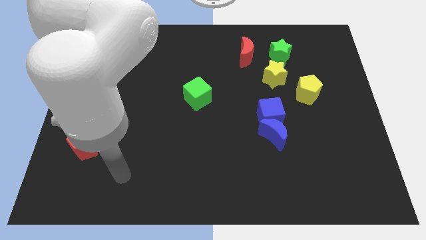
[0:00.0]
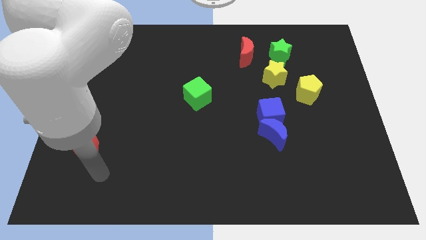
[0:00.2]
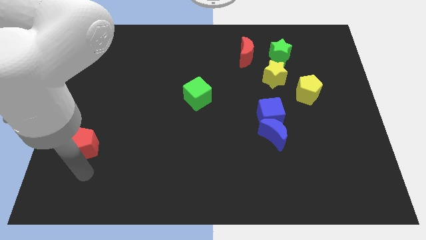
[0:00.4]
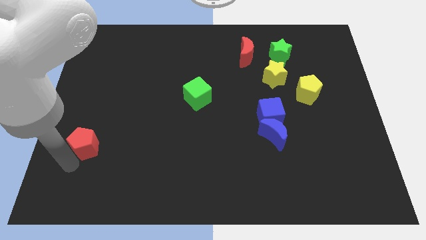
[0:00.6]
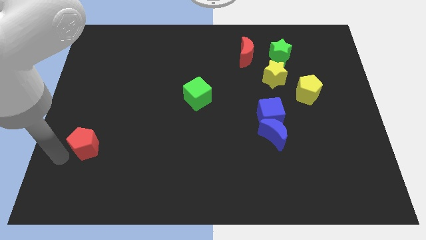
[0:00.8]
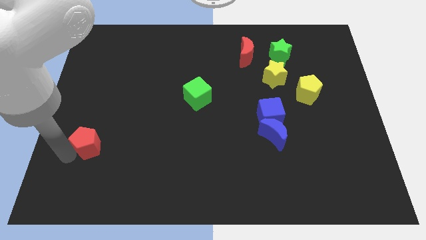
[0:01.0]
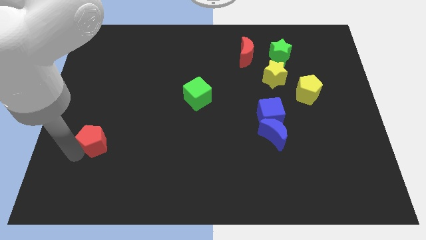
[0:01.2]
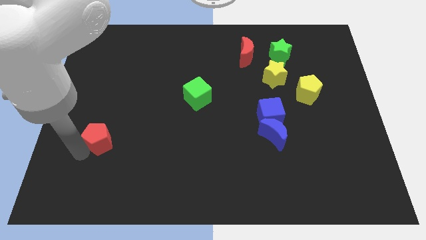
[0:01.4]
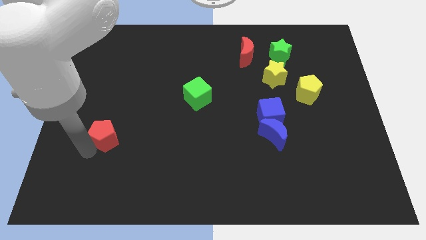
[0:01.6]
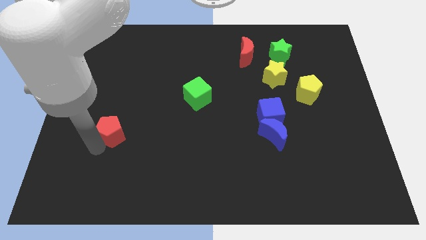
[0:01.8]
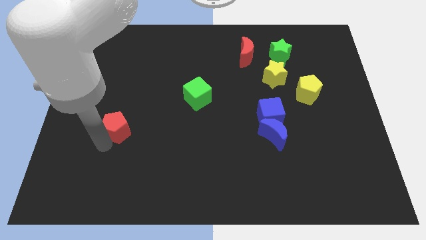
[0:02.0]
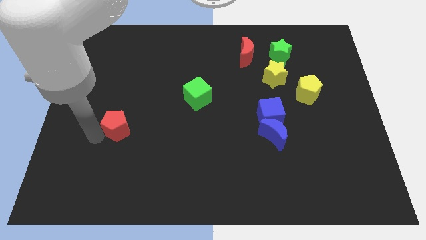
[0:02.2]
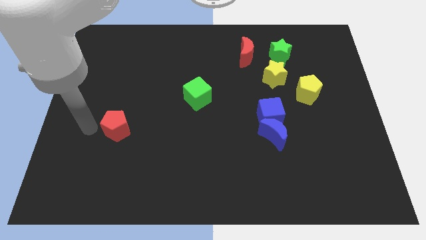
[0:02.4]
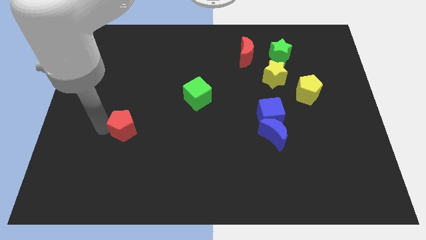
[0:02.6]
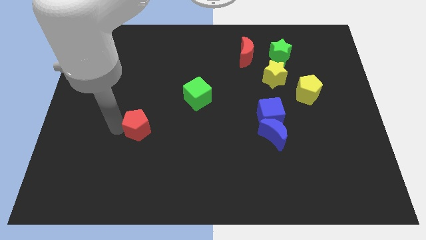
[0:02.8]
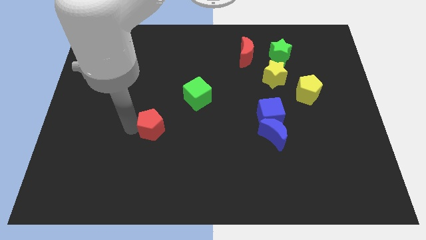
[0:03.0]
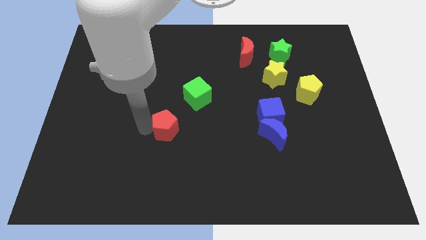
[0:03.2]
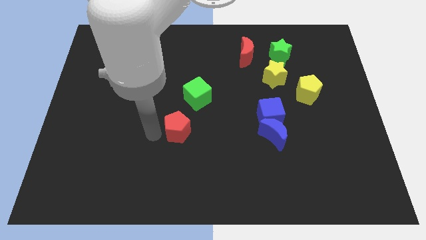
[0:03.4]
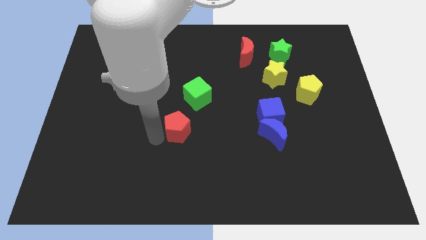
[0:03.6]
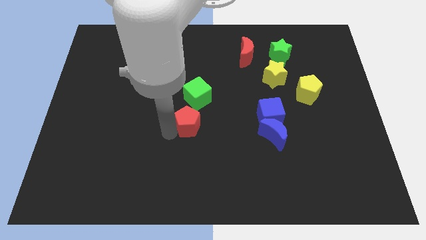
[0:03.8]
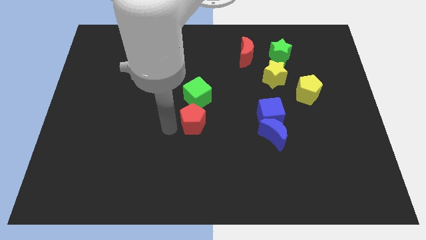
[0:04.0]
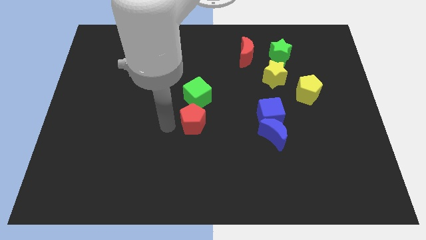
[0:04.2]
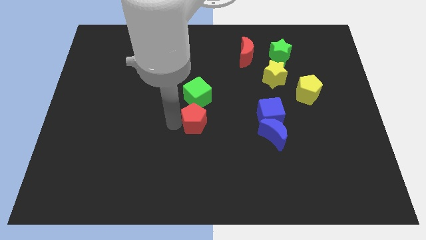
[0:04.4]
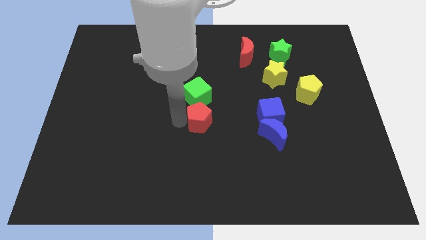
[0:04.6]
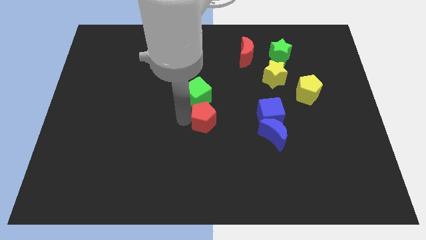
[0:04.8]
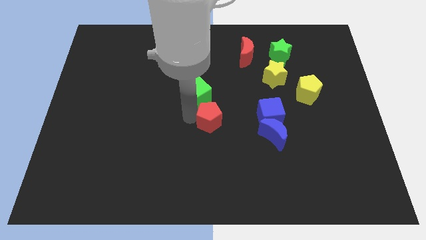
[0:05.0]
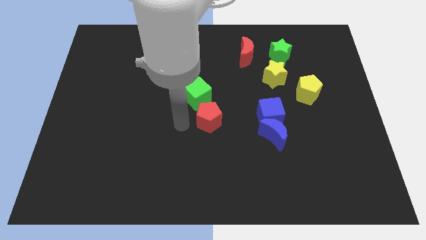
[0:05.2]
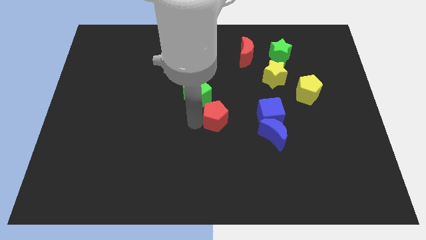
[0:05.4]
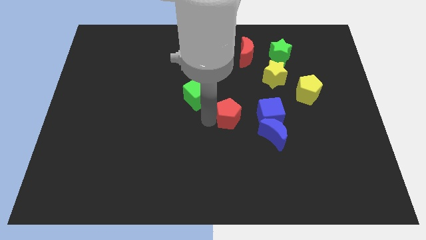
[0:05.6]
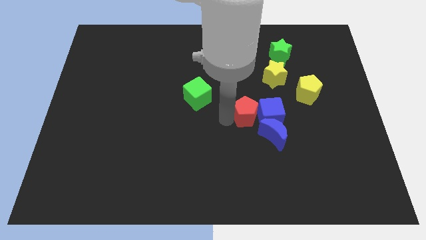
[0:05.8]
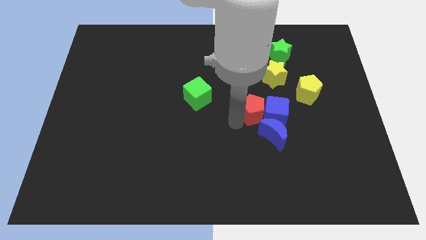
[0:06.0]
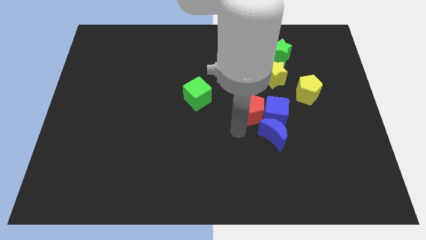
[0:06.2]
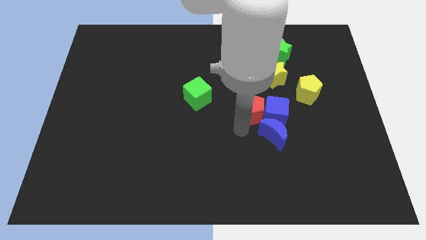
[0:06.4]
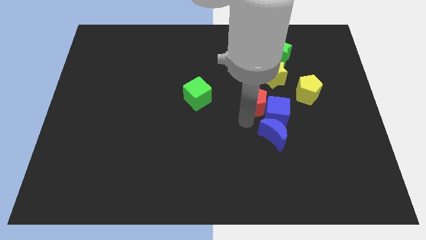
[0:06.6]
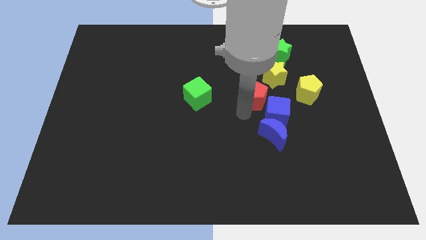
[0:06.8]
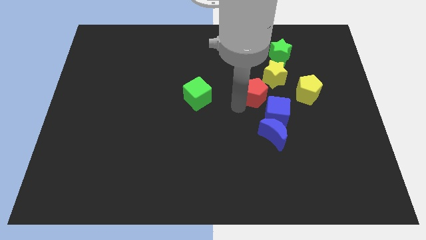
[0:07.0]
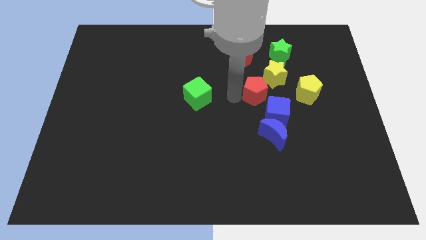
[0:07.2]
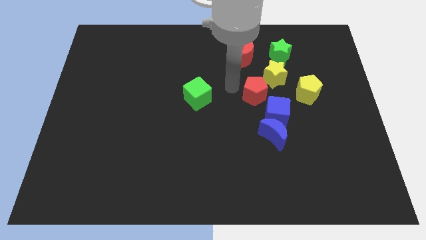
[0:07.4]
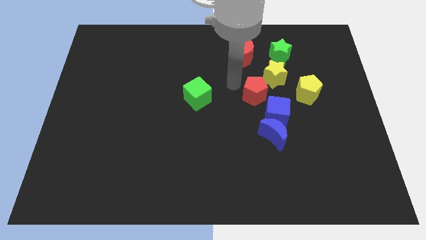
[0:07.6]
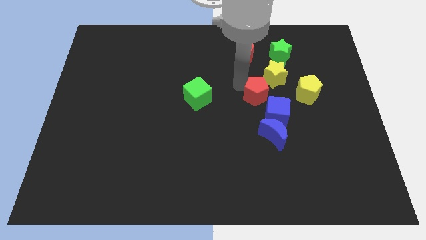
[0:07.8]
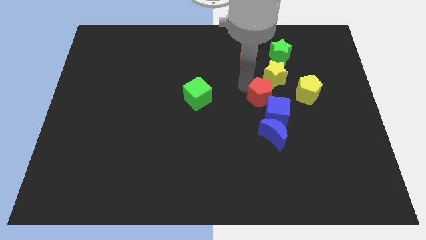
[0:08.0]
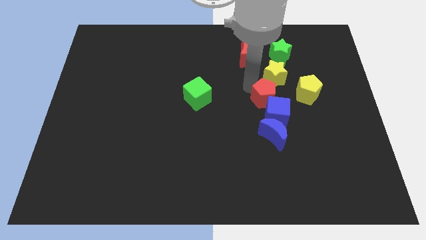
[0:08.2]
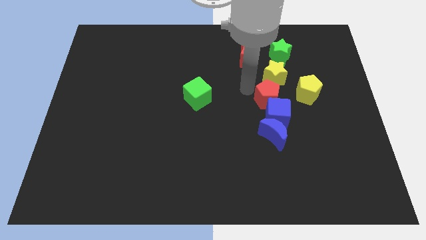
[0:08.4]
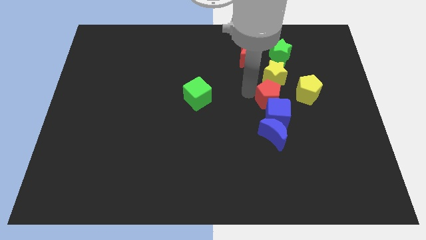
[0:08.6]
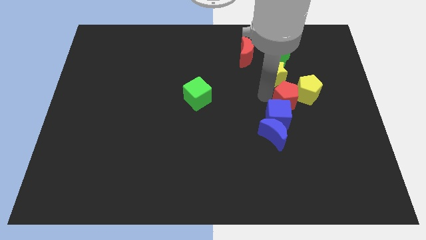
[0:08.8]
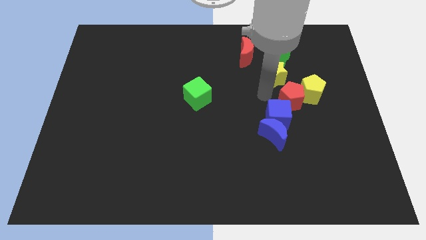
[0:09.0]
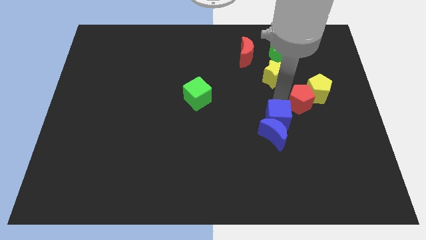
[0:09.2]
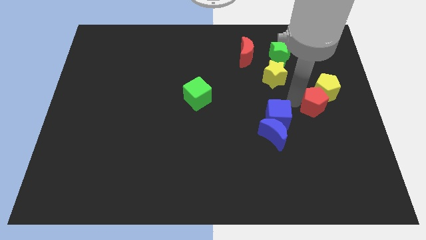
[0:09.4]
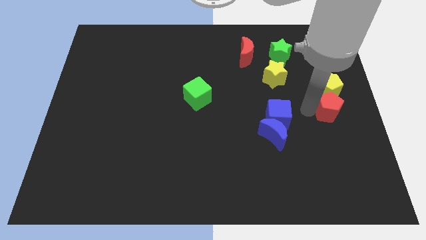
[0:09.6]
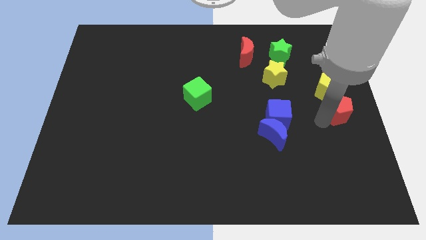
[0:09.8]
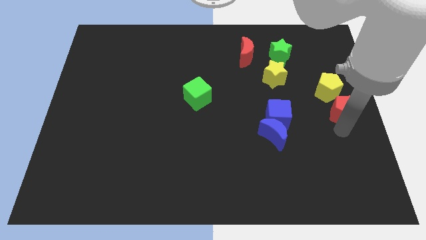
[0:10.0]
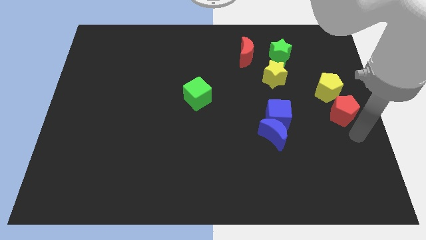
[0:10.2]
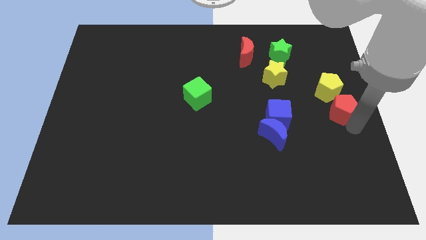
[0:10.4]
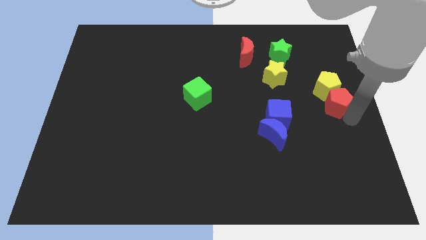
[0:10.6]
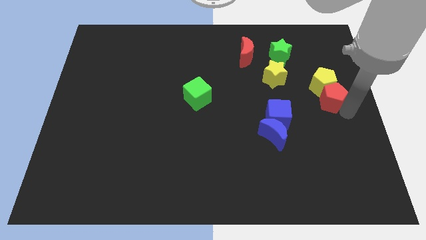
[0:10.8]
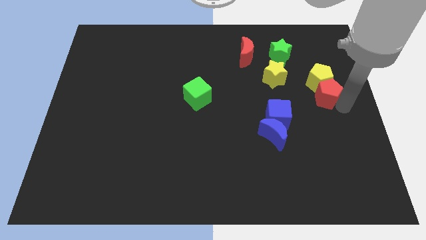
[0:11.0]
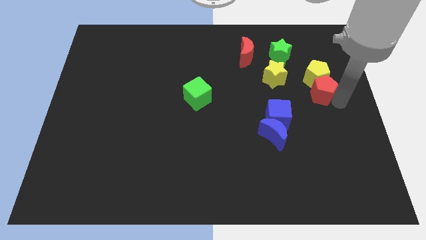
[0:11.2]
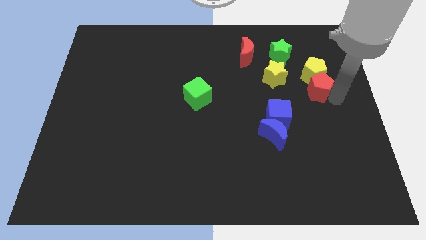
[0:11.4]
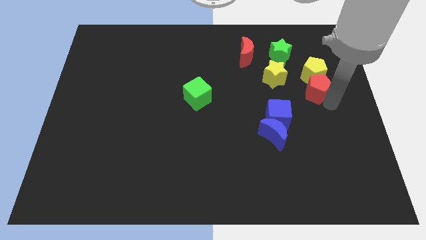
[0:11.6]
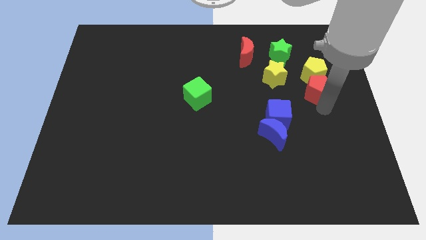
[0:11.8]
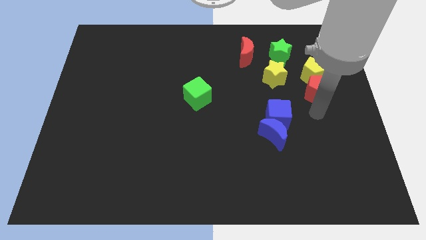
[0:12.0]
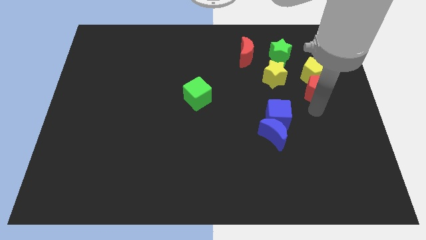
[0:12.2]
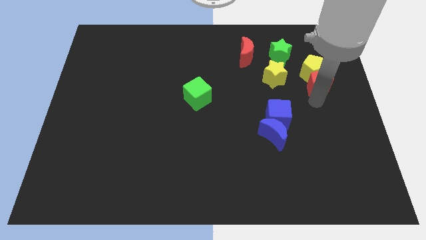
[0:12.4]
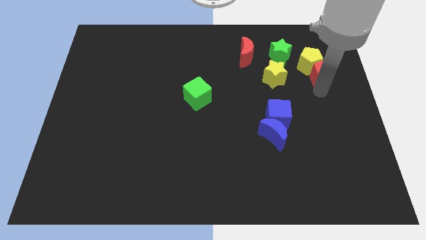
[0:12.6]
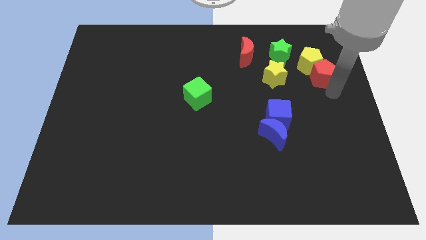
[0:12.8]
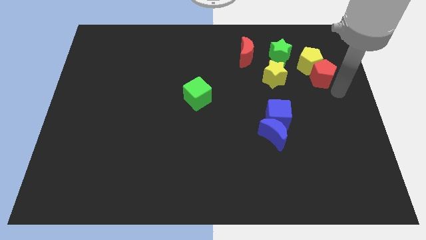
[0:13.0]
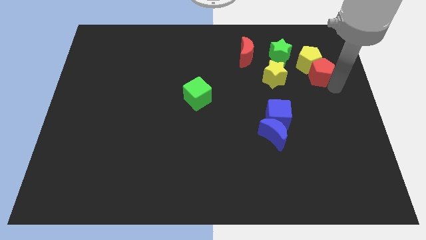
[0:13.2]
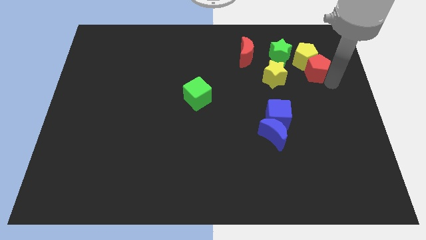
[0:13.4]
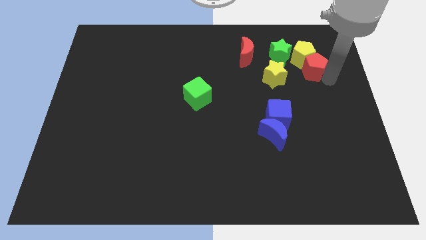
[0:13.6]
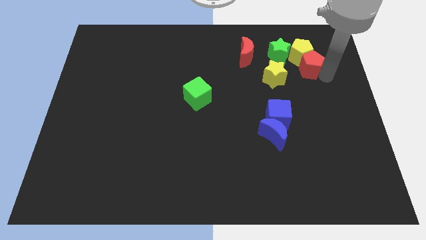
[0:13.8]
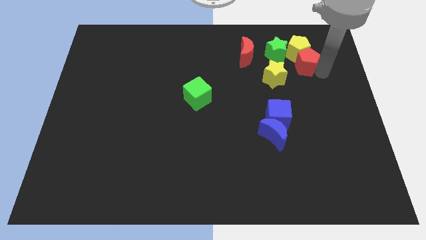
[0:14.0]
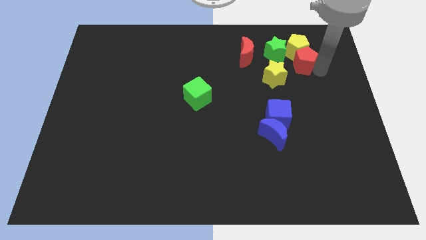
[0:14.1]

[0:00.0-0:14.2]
put the red pentagon right of the red moon
